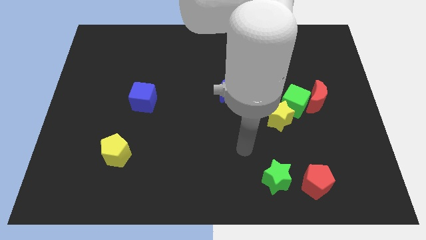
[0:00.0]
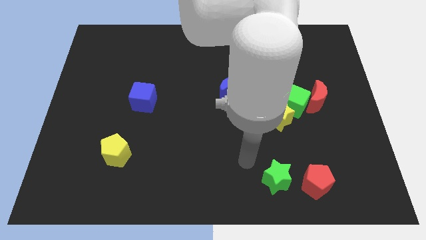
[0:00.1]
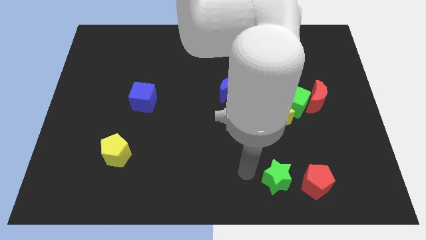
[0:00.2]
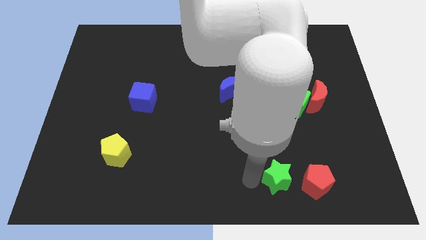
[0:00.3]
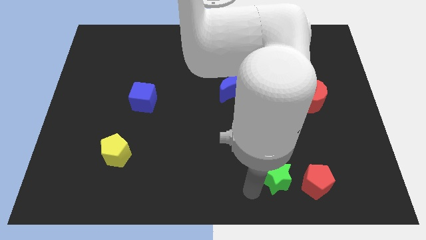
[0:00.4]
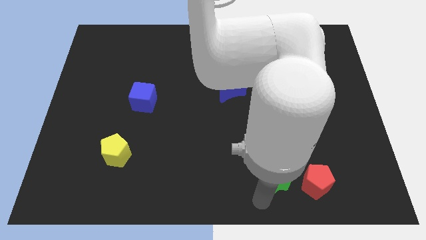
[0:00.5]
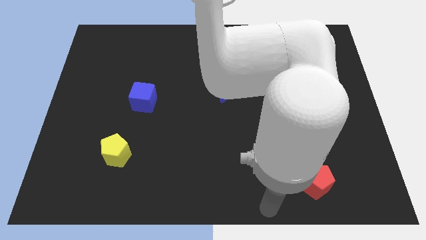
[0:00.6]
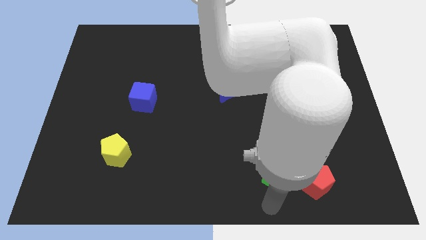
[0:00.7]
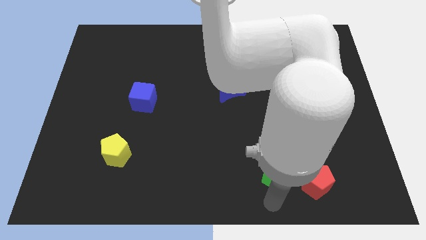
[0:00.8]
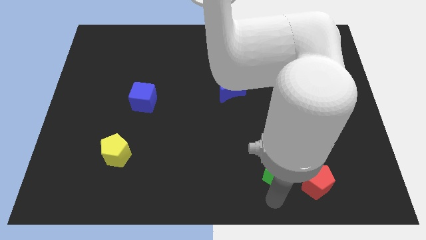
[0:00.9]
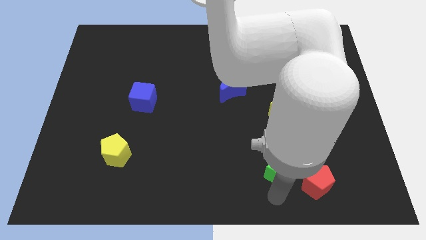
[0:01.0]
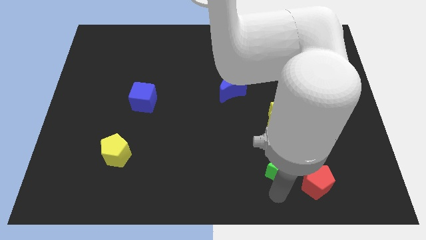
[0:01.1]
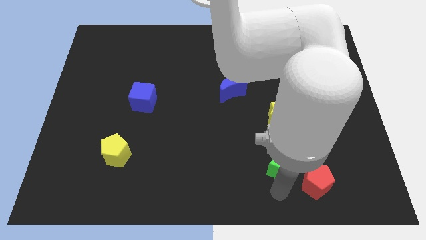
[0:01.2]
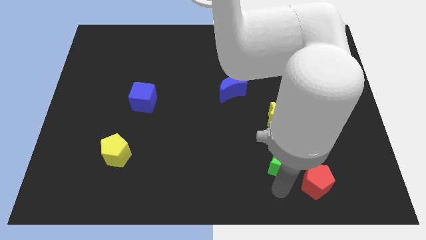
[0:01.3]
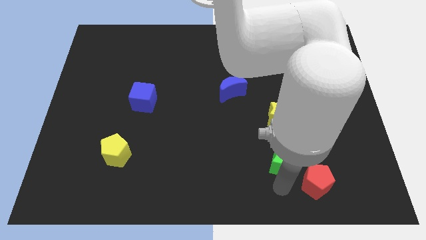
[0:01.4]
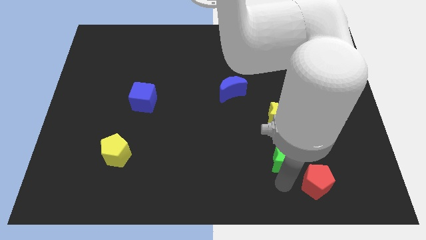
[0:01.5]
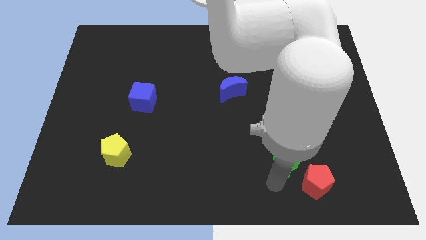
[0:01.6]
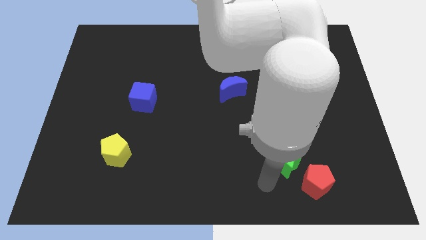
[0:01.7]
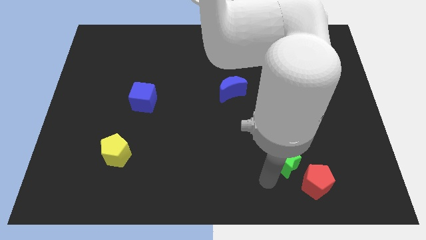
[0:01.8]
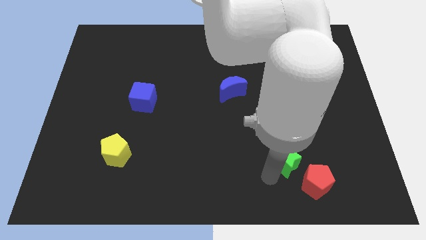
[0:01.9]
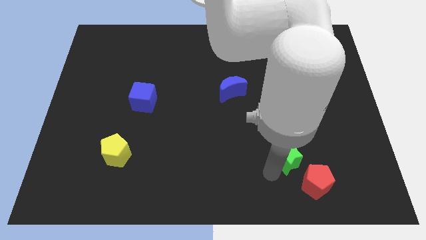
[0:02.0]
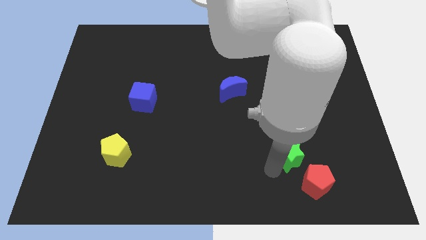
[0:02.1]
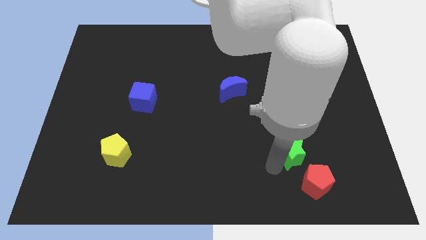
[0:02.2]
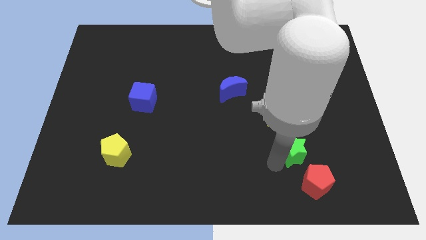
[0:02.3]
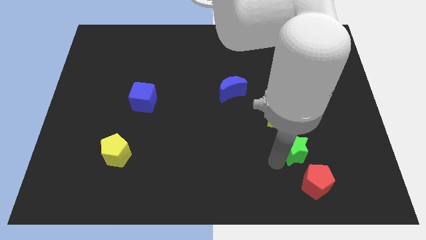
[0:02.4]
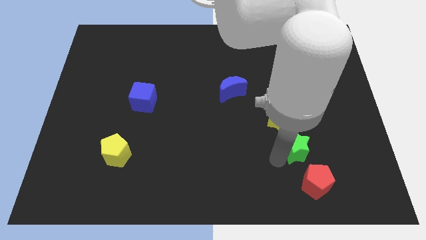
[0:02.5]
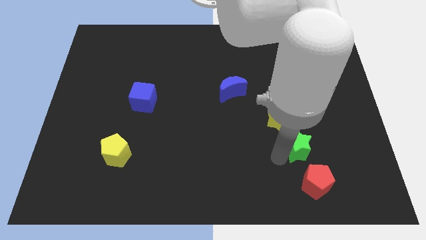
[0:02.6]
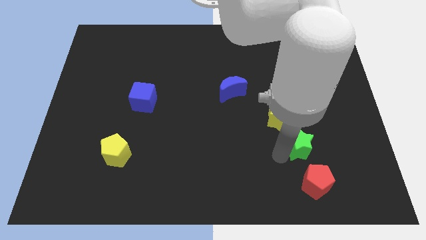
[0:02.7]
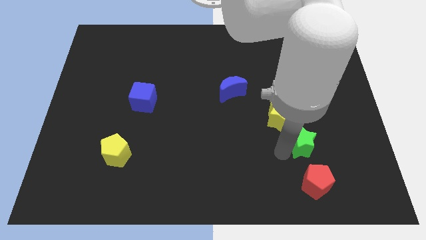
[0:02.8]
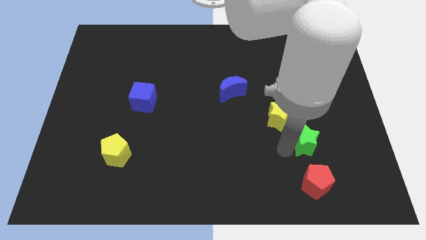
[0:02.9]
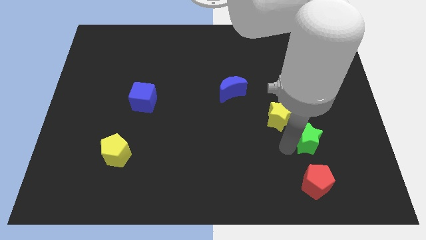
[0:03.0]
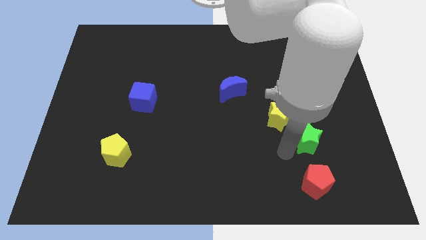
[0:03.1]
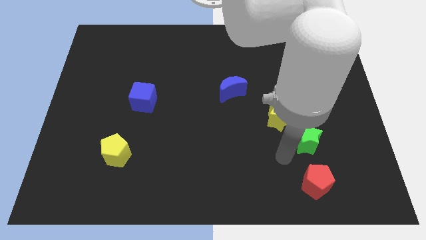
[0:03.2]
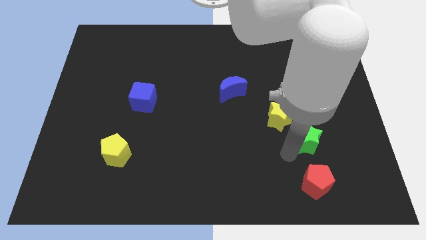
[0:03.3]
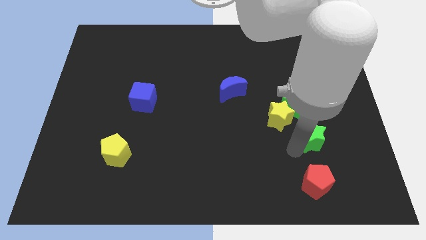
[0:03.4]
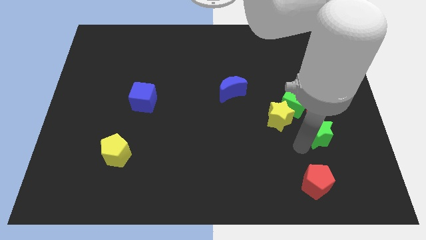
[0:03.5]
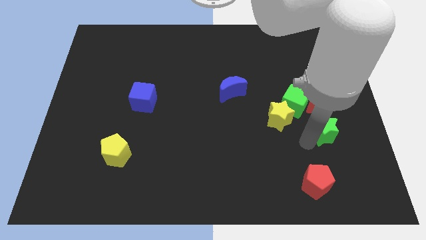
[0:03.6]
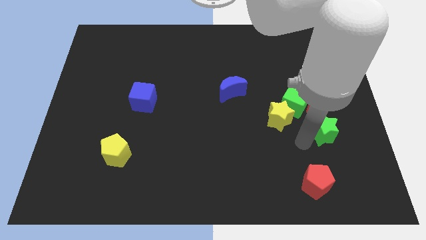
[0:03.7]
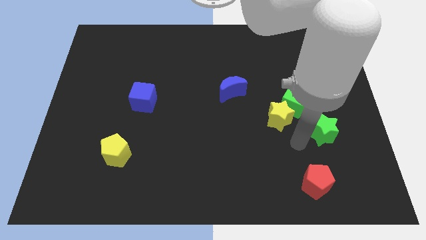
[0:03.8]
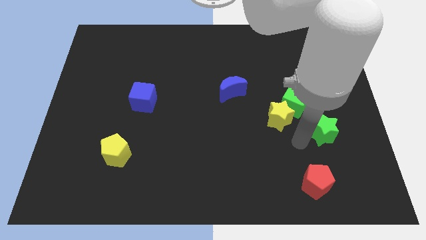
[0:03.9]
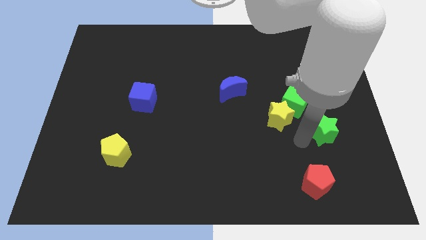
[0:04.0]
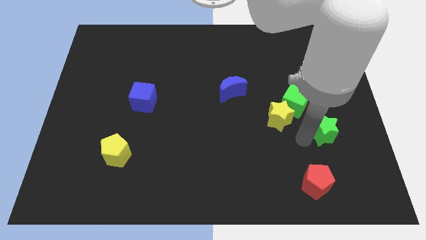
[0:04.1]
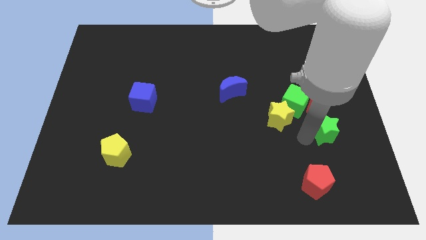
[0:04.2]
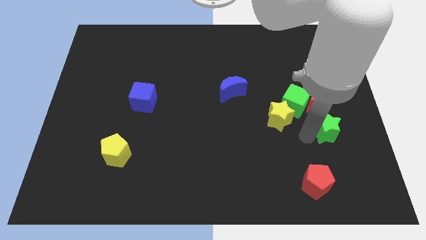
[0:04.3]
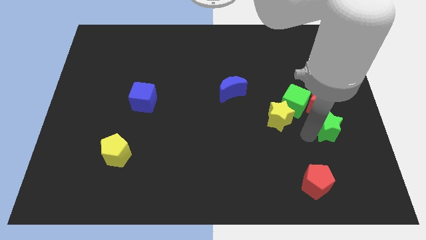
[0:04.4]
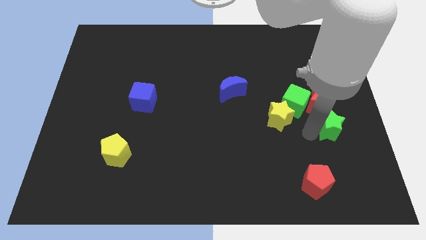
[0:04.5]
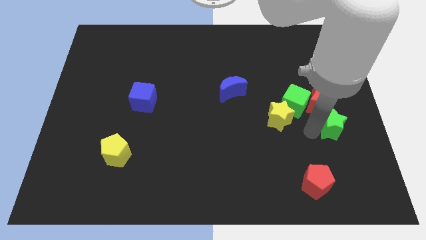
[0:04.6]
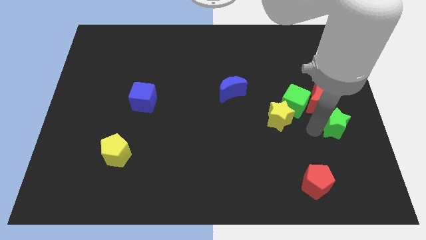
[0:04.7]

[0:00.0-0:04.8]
push the green star to the right side of the board
